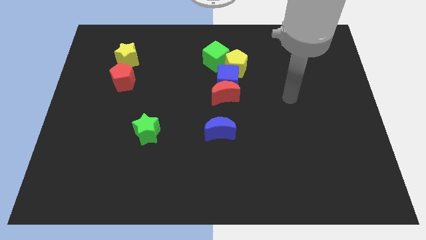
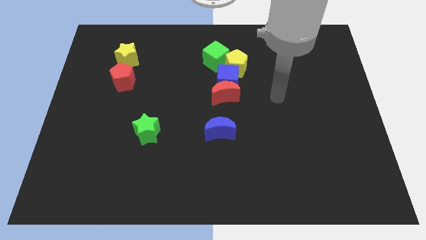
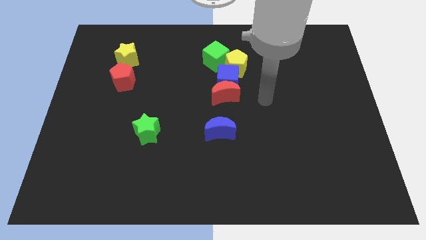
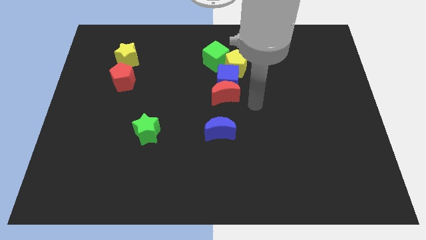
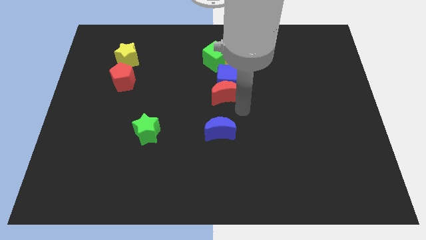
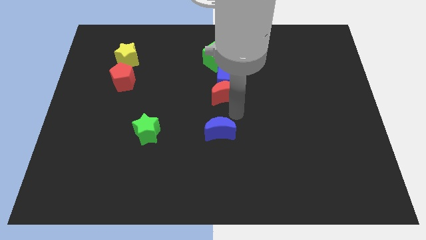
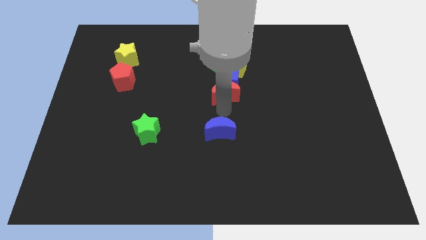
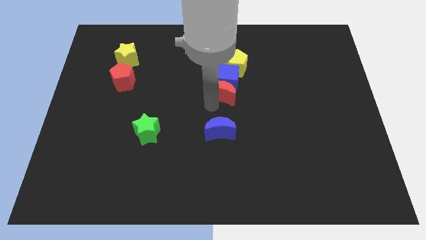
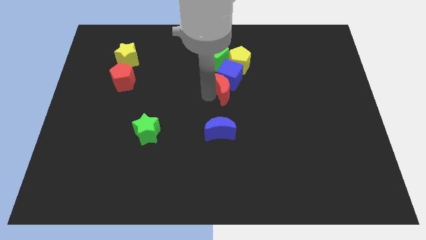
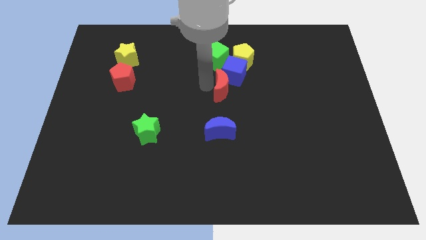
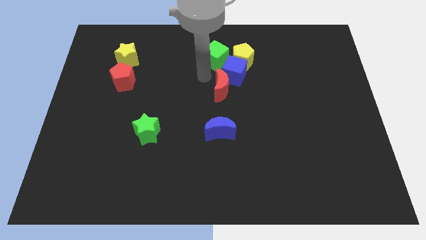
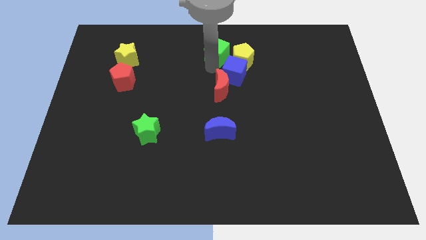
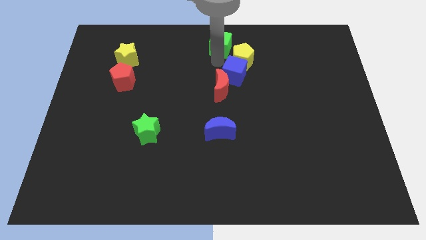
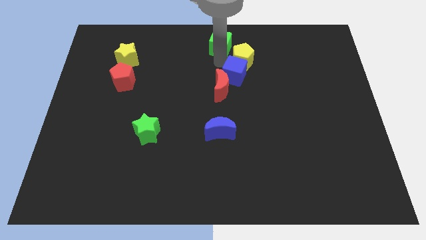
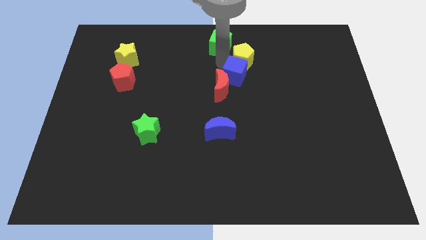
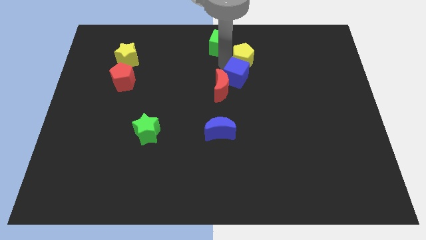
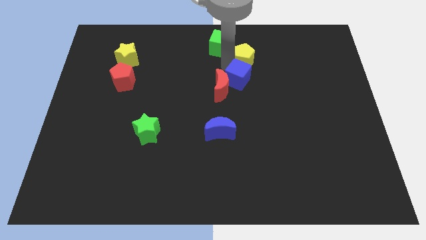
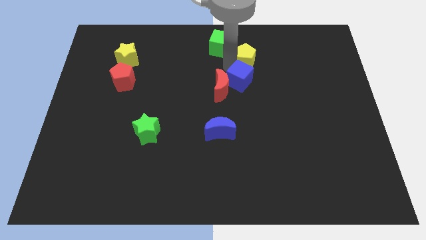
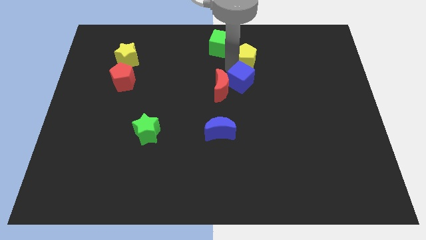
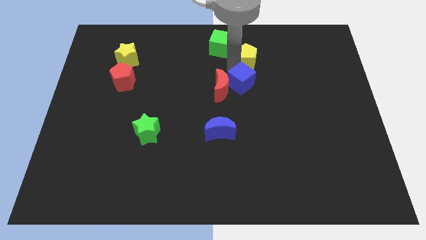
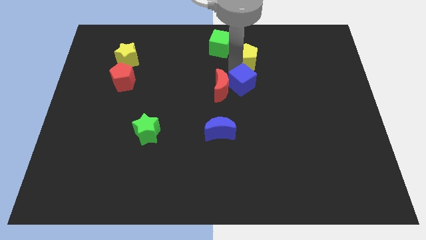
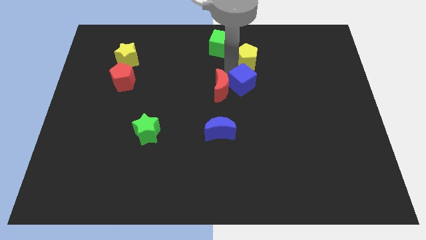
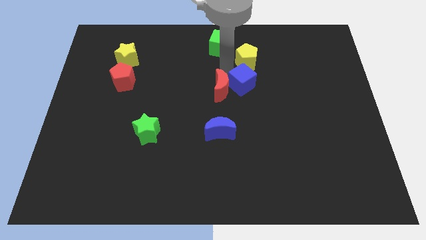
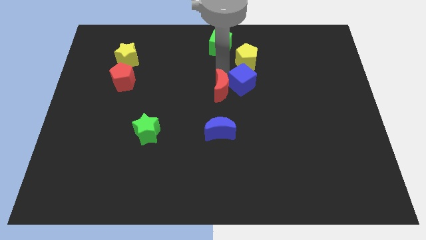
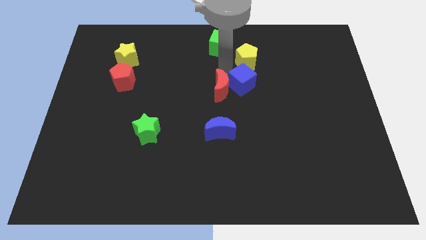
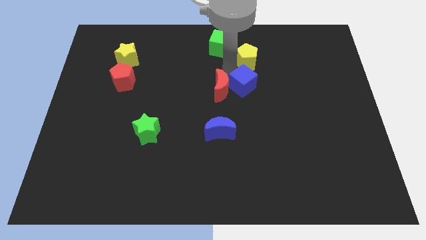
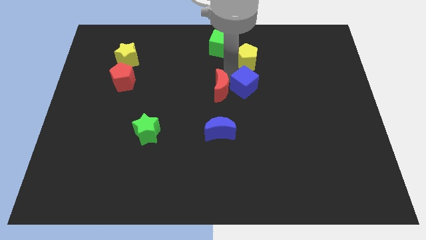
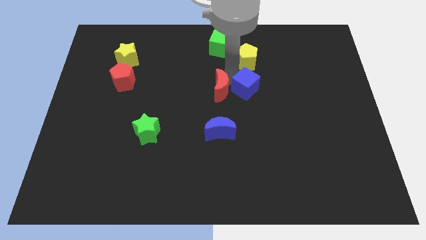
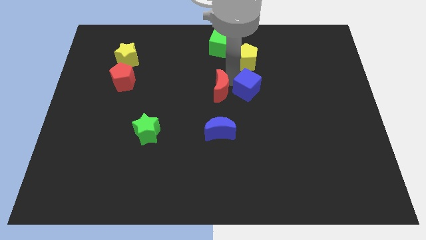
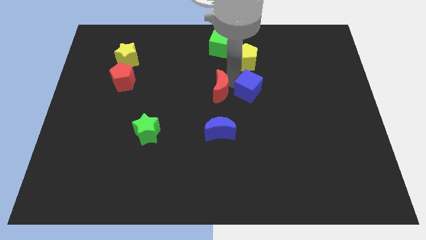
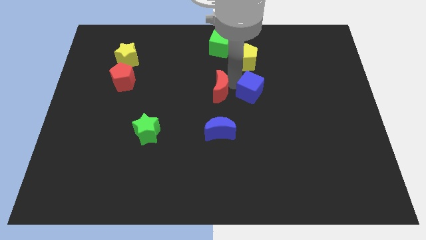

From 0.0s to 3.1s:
move the blue cube away from the red moon, yellow pentagon, and green cube

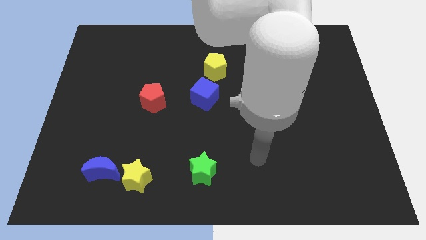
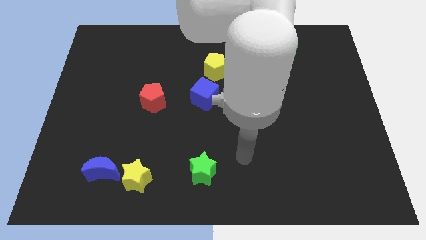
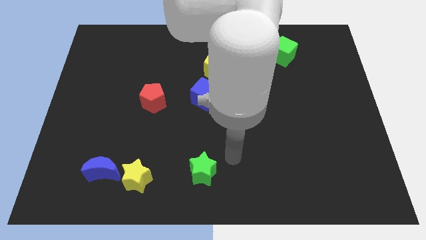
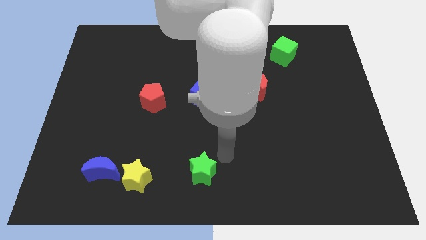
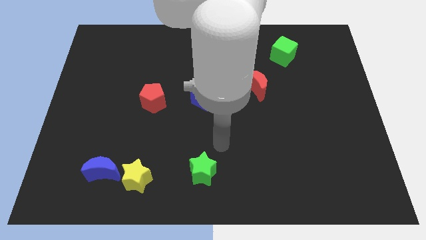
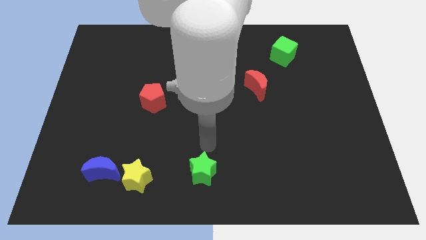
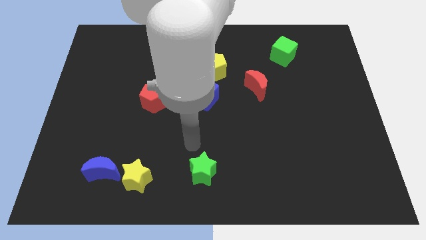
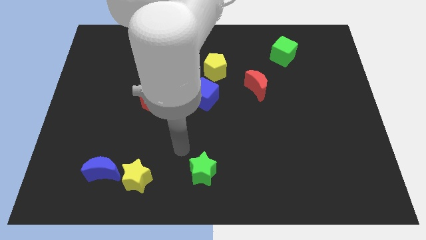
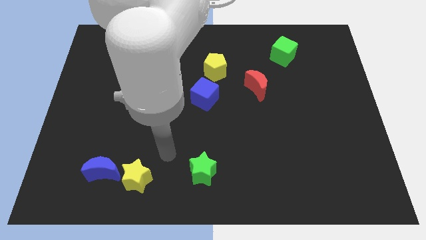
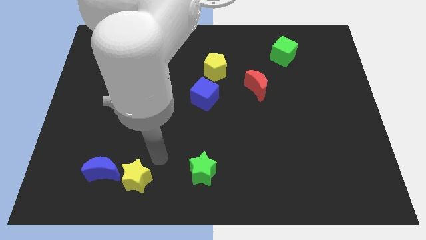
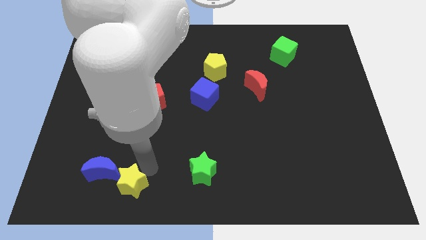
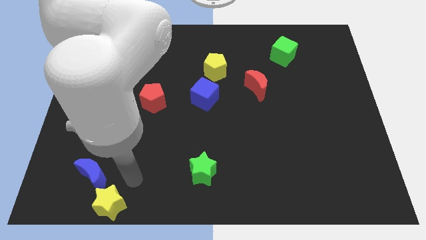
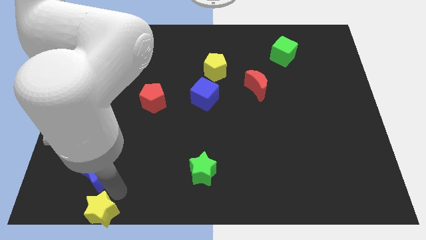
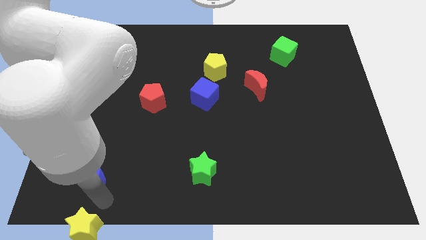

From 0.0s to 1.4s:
separate the blue moon from the yellow star

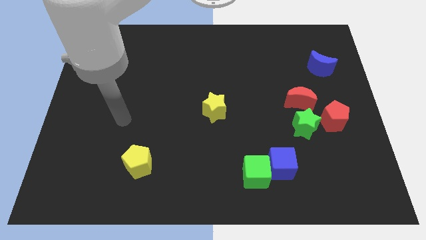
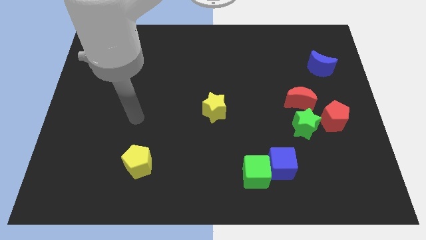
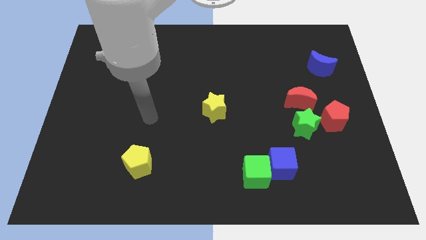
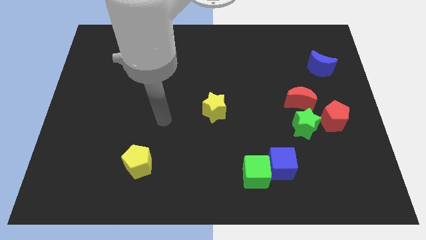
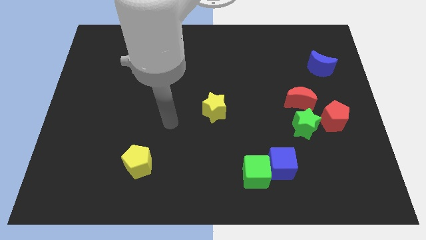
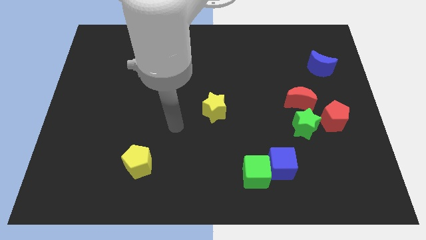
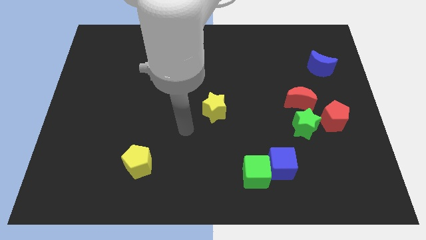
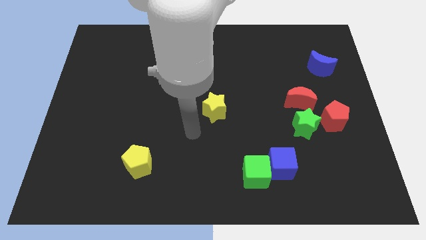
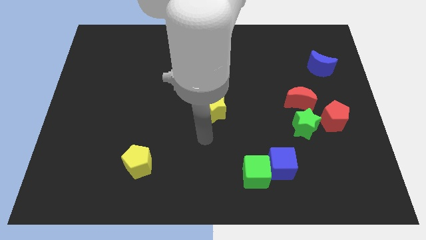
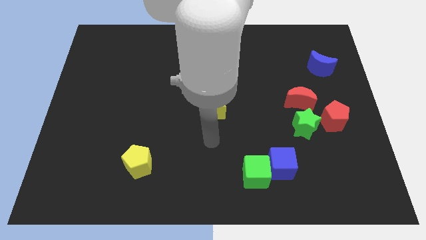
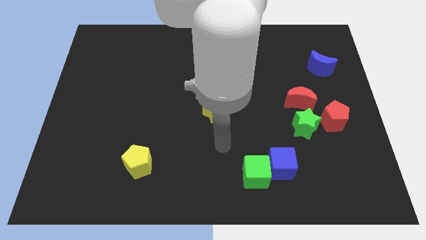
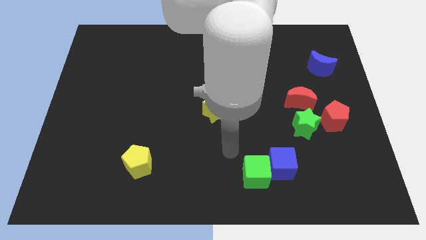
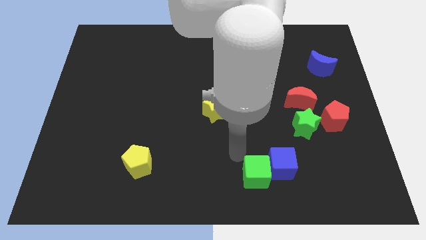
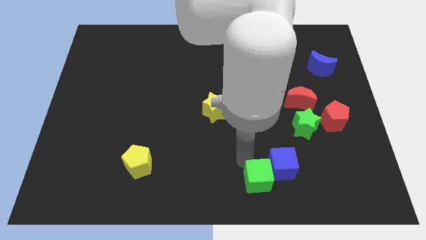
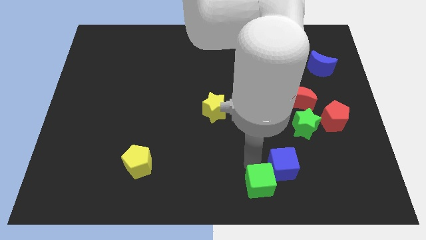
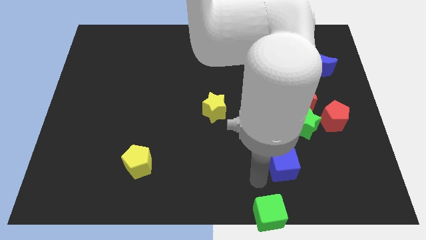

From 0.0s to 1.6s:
separate the blue cube from the green cube

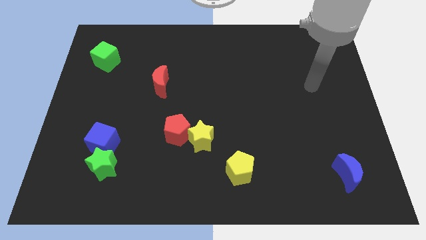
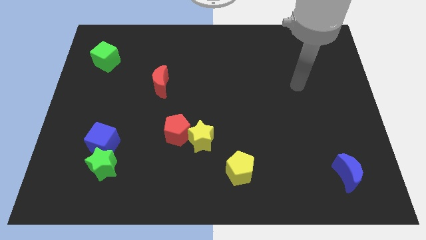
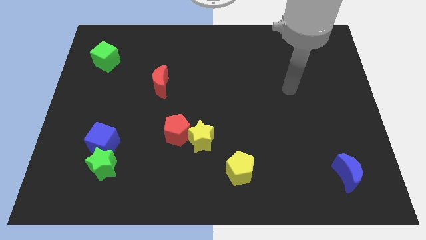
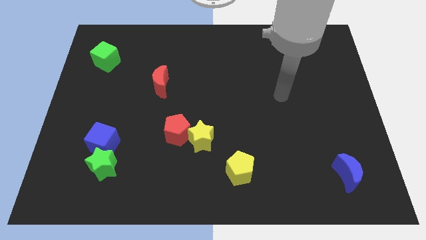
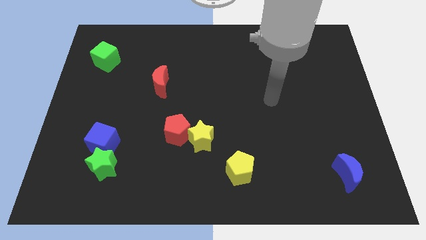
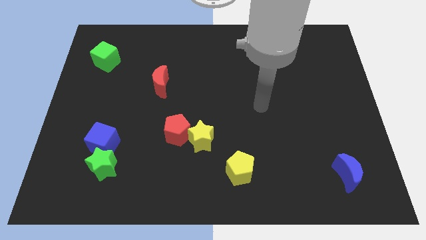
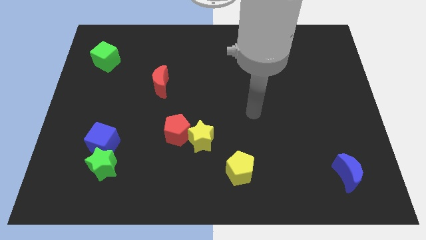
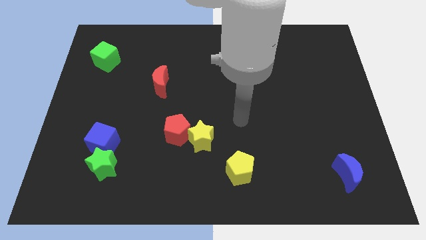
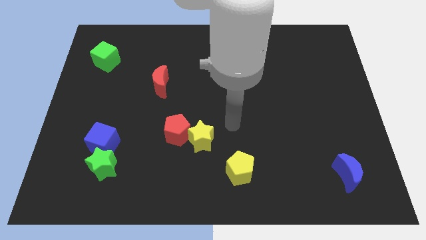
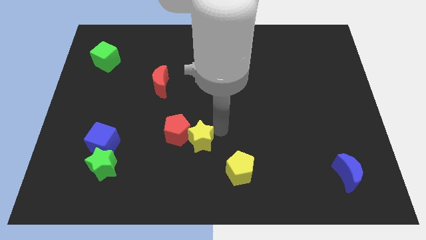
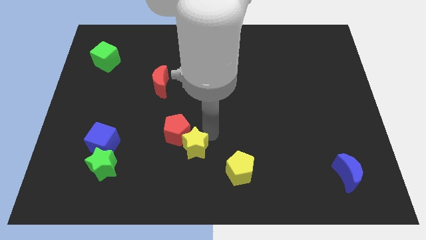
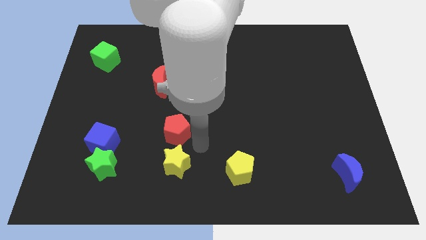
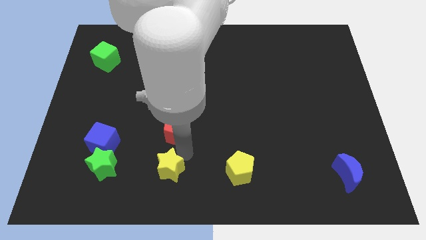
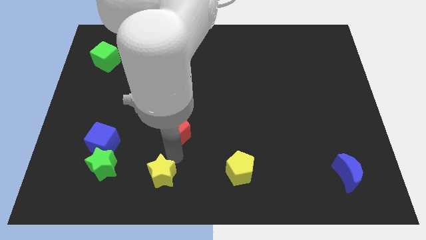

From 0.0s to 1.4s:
separate the red pentagon from the yellow star

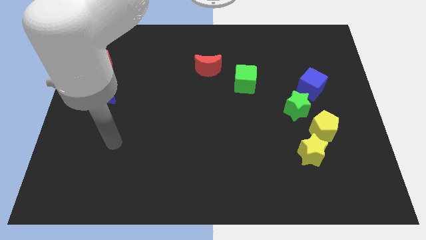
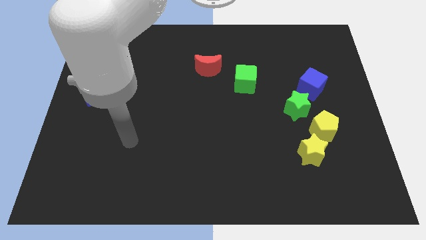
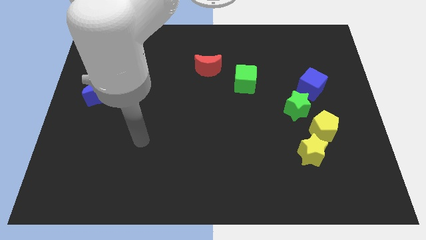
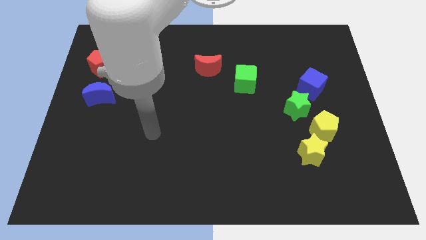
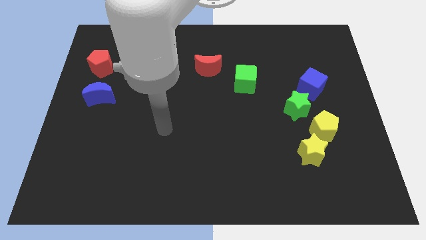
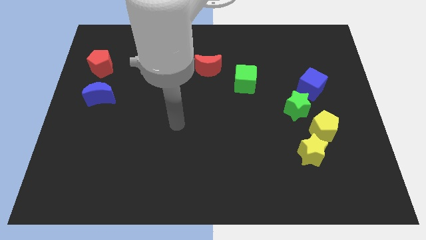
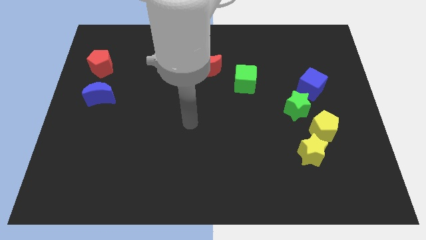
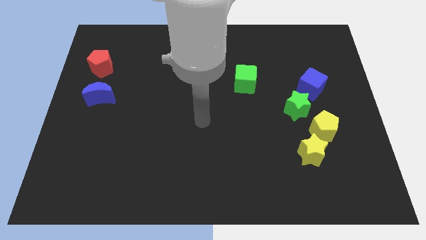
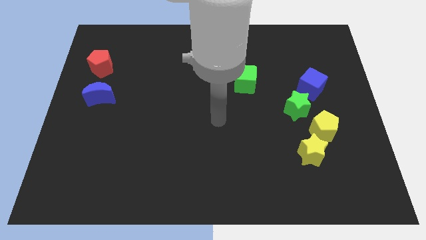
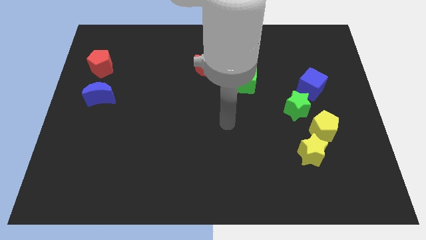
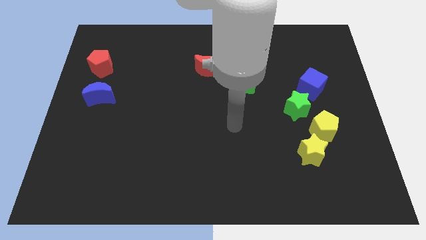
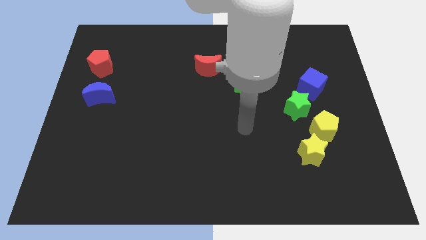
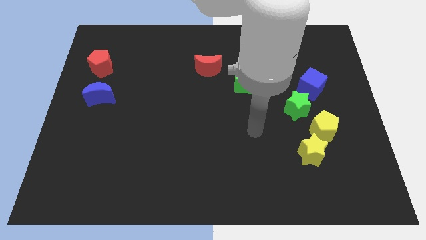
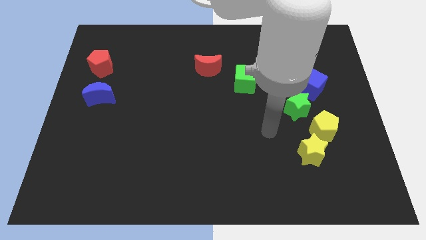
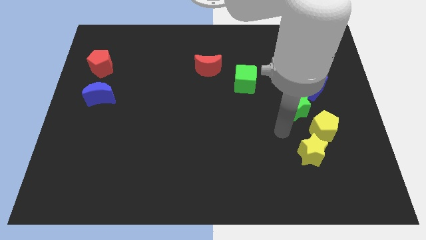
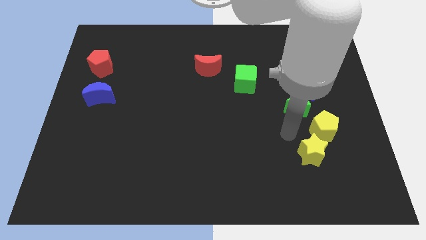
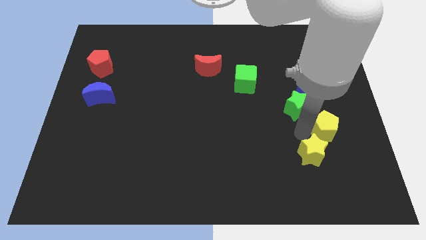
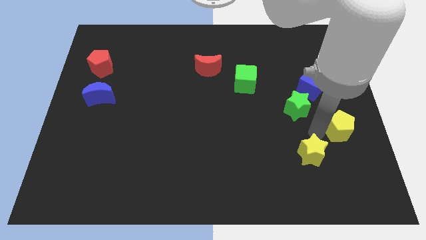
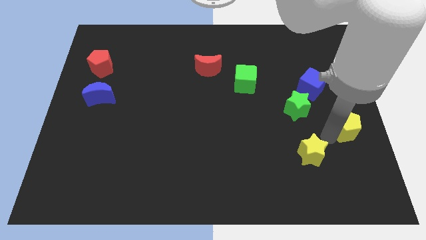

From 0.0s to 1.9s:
move the yellow star away from the yellow pentagon
